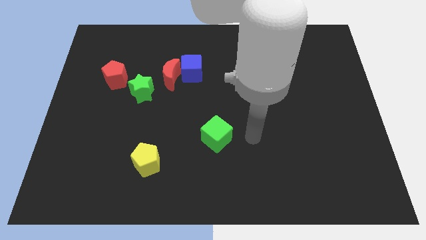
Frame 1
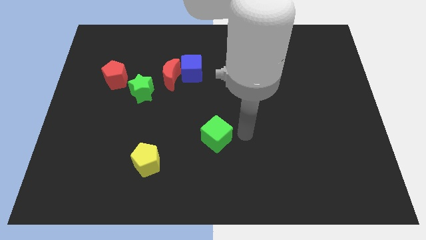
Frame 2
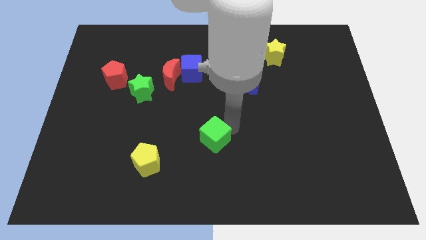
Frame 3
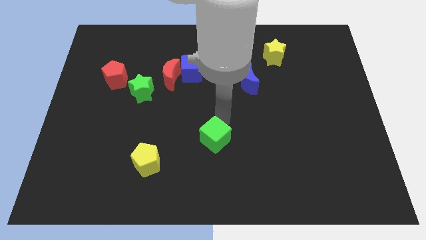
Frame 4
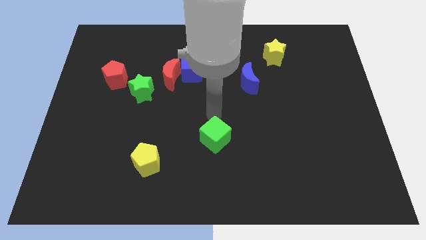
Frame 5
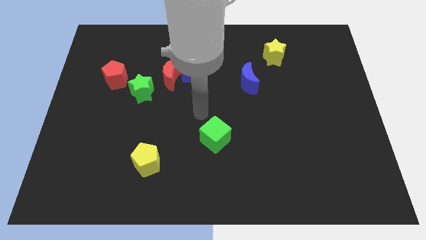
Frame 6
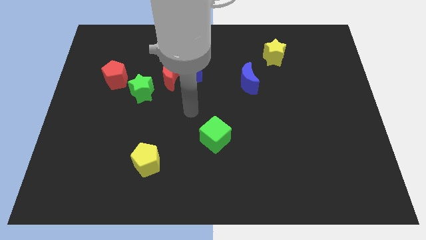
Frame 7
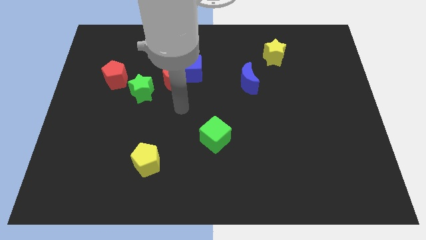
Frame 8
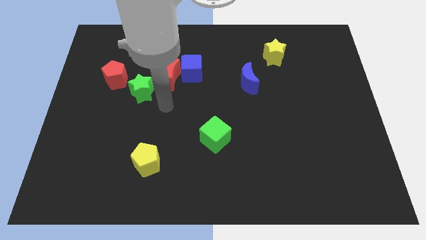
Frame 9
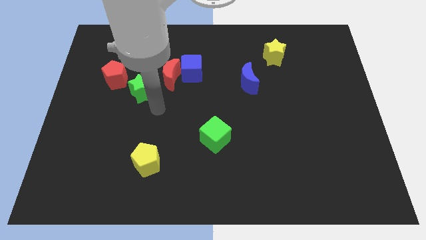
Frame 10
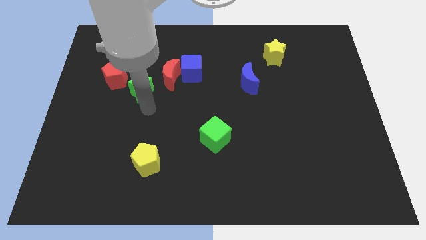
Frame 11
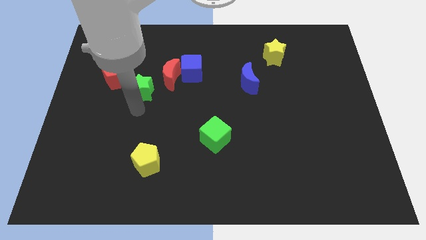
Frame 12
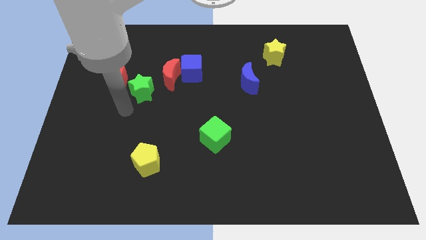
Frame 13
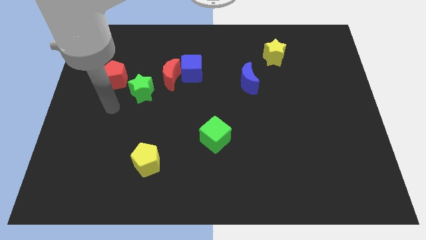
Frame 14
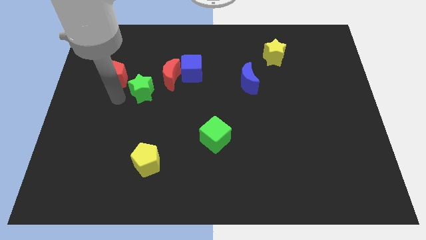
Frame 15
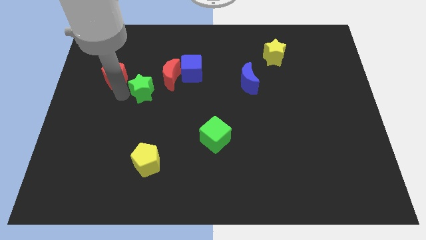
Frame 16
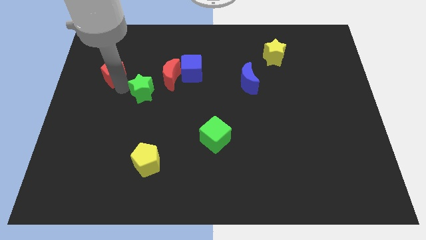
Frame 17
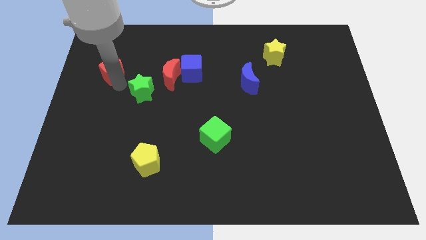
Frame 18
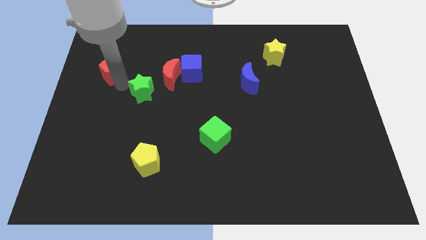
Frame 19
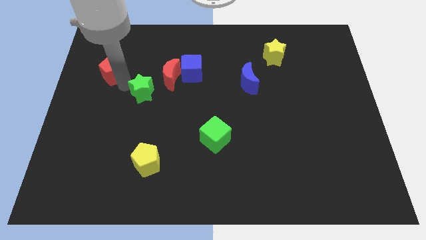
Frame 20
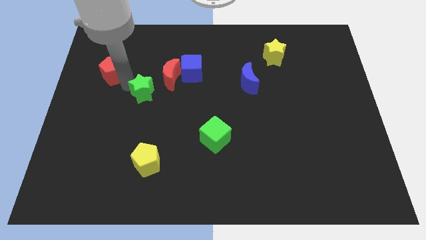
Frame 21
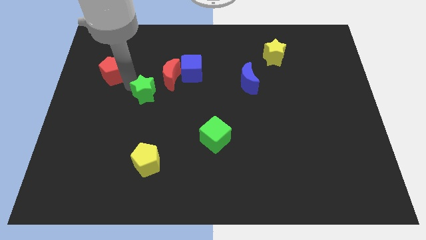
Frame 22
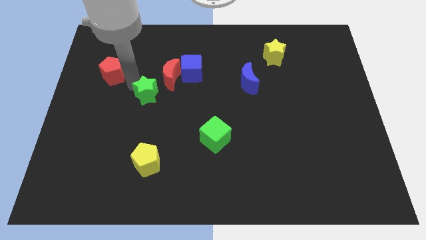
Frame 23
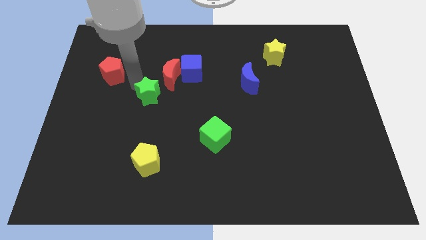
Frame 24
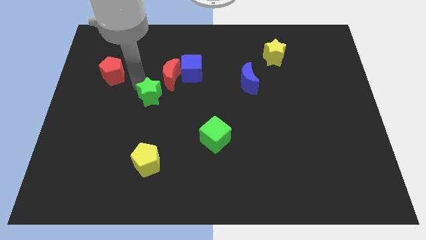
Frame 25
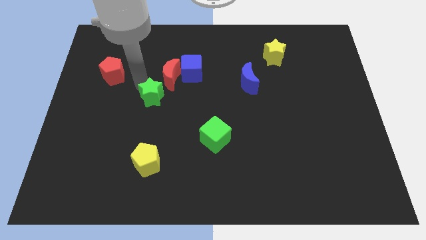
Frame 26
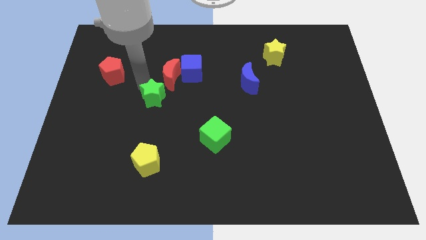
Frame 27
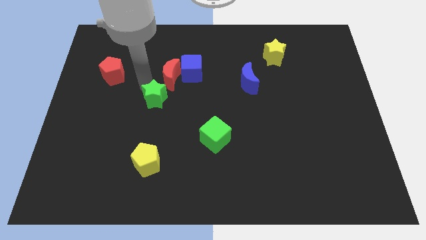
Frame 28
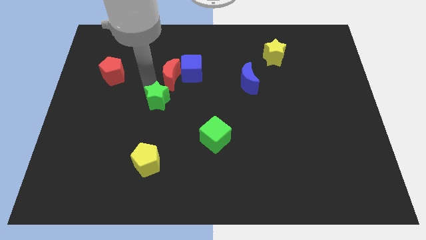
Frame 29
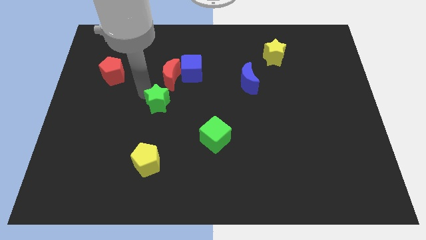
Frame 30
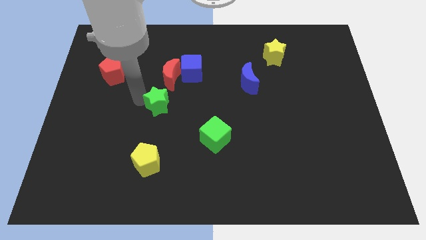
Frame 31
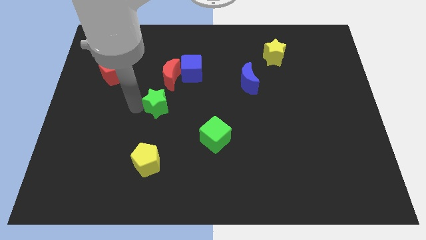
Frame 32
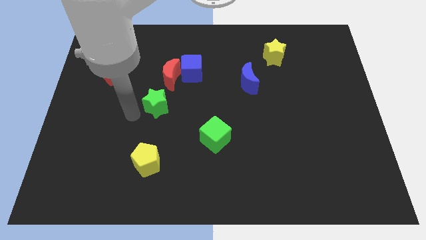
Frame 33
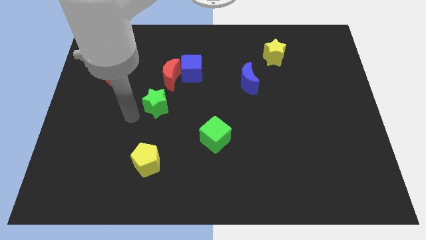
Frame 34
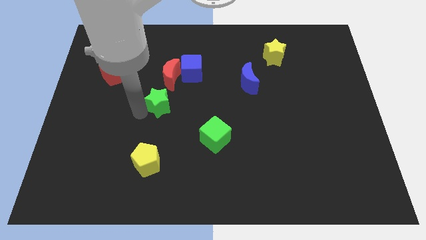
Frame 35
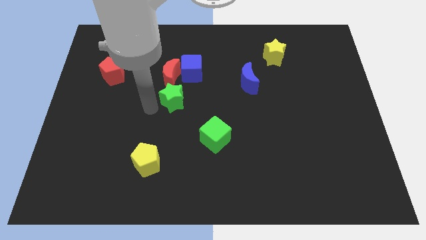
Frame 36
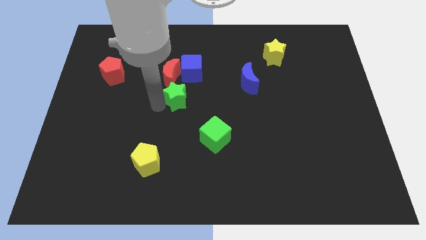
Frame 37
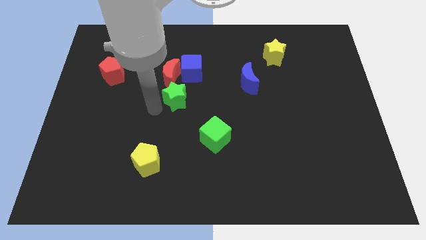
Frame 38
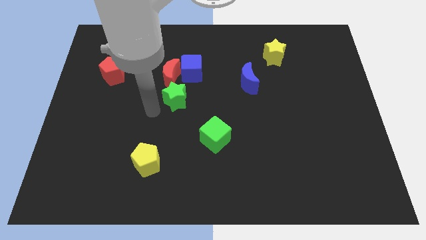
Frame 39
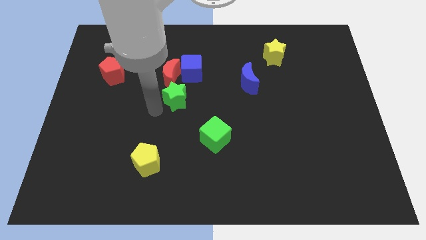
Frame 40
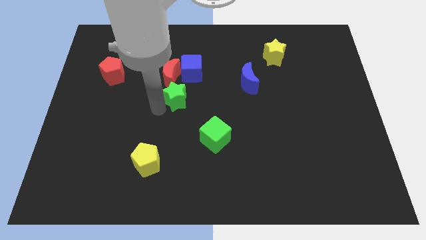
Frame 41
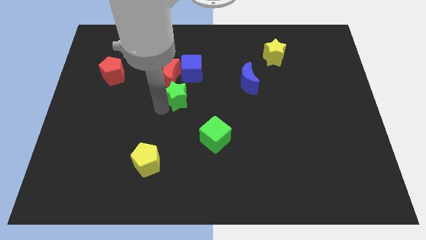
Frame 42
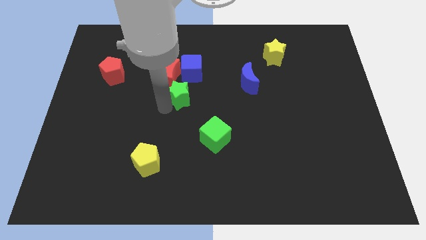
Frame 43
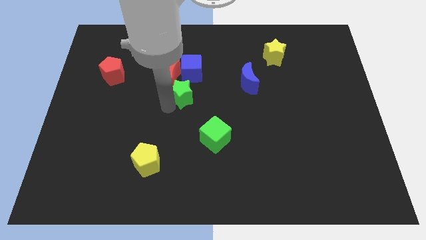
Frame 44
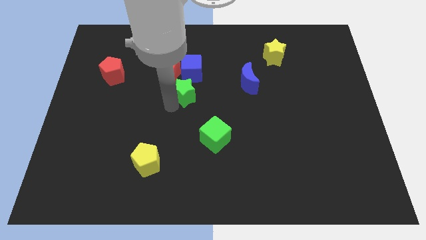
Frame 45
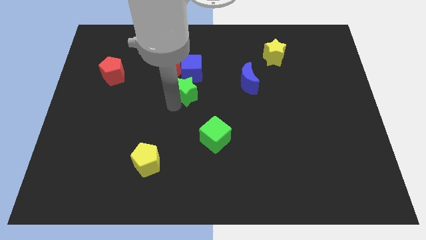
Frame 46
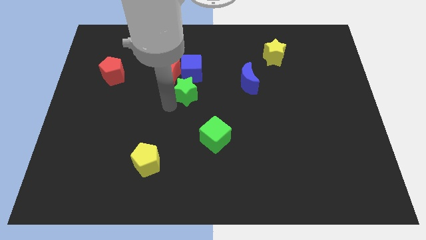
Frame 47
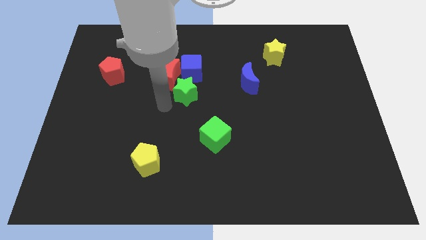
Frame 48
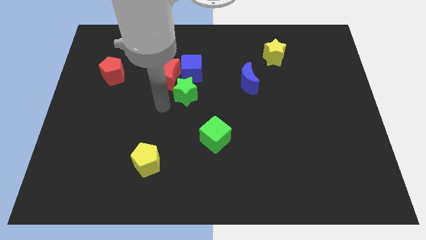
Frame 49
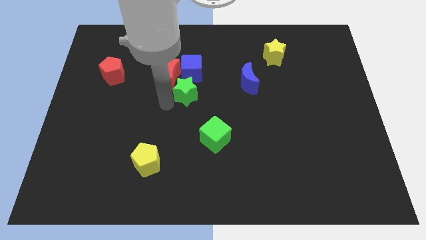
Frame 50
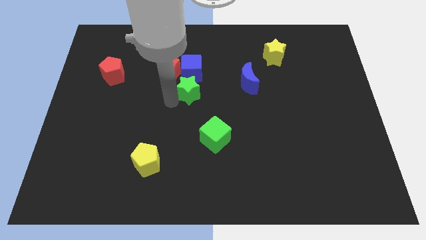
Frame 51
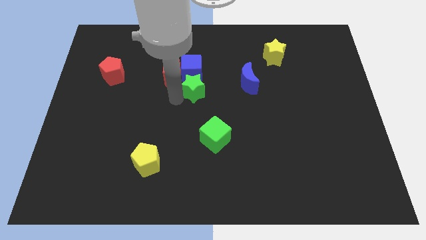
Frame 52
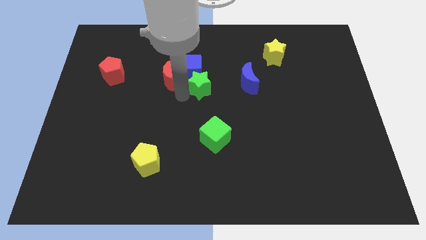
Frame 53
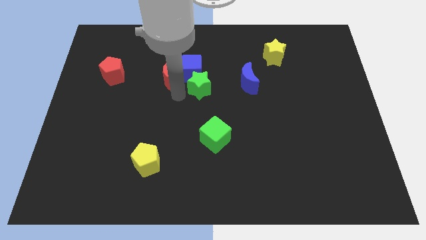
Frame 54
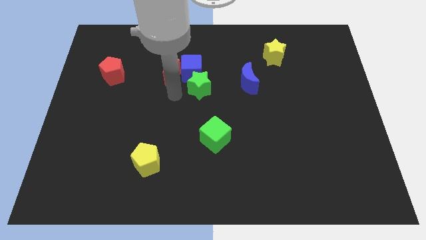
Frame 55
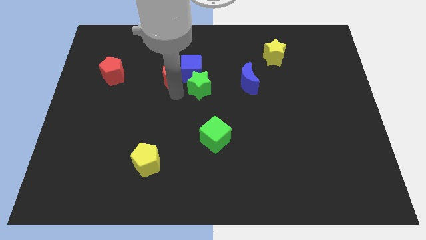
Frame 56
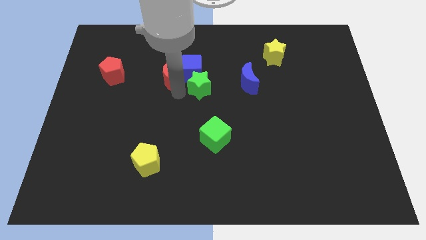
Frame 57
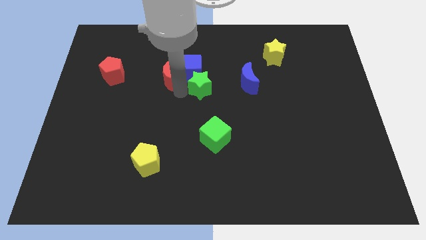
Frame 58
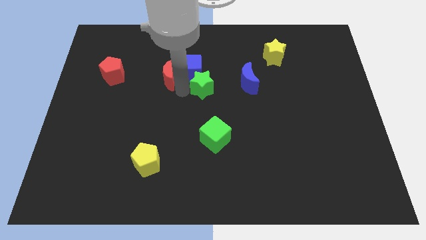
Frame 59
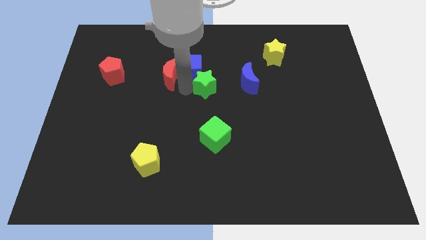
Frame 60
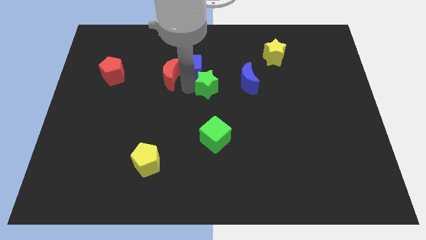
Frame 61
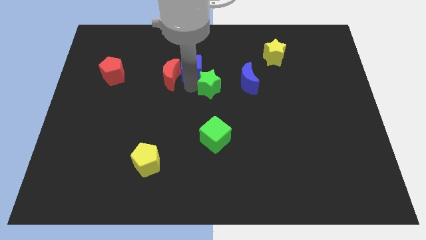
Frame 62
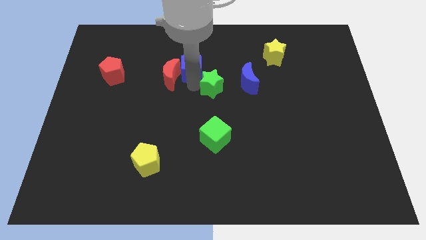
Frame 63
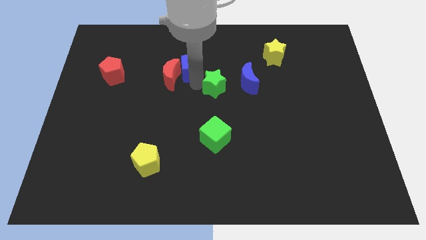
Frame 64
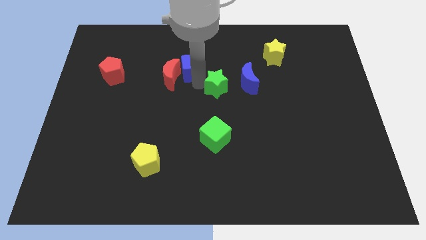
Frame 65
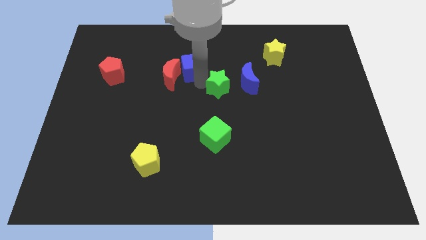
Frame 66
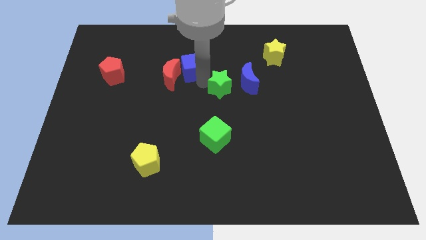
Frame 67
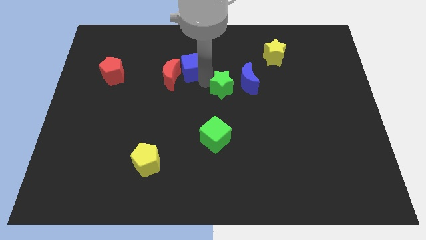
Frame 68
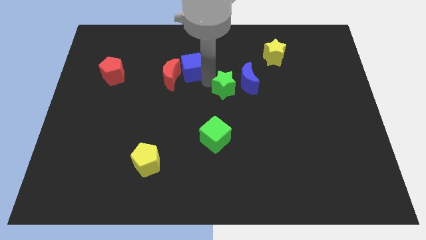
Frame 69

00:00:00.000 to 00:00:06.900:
slide the green star to the blue moon

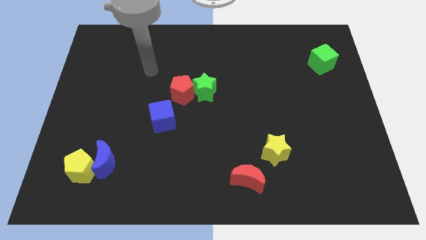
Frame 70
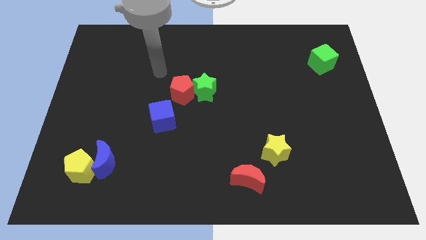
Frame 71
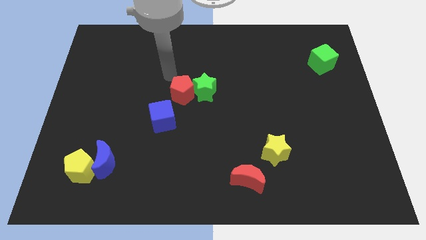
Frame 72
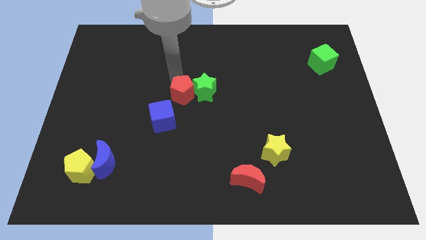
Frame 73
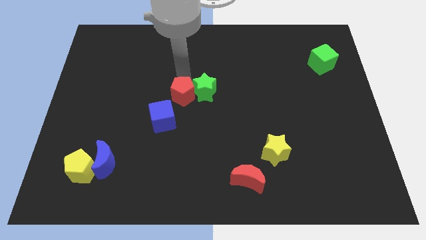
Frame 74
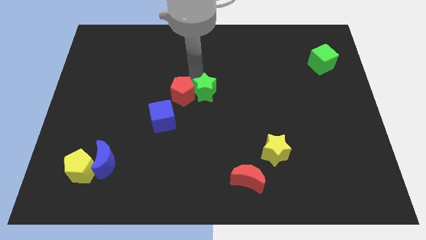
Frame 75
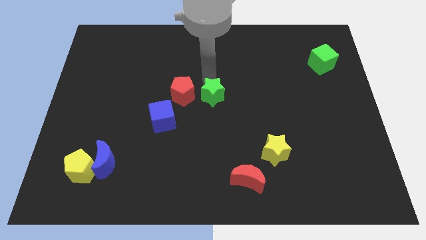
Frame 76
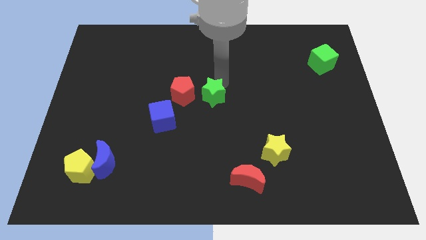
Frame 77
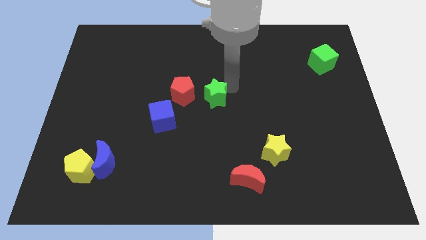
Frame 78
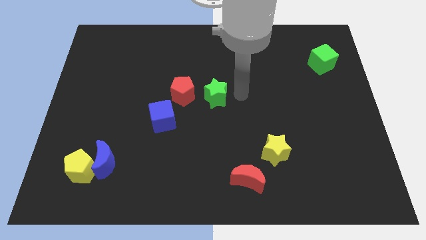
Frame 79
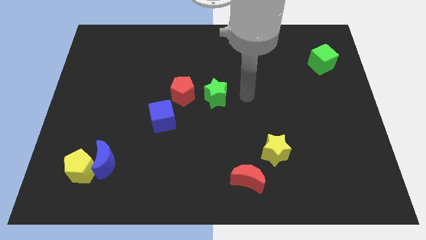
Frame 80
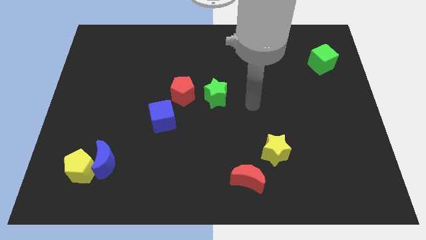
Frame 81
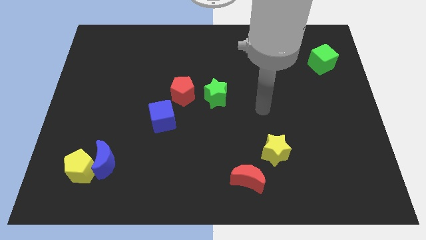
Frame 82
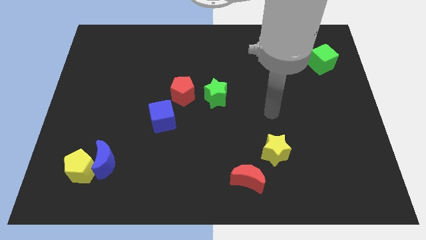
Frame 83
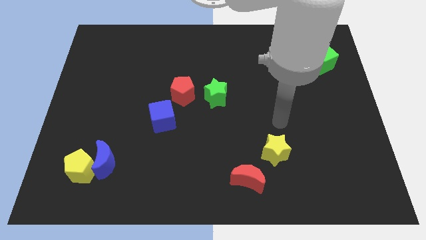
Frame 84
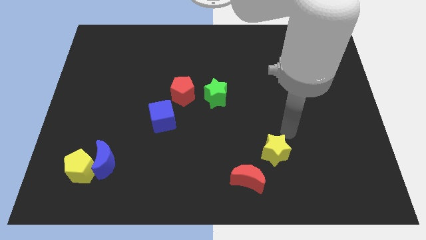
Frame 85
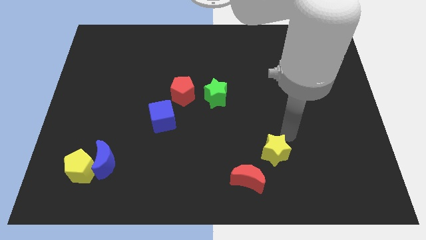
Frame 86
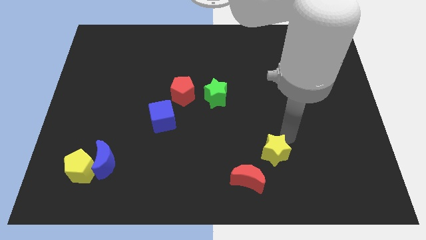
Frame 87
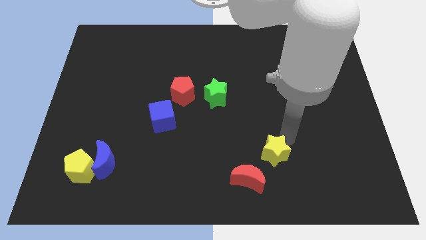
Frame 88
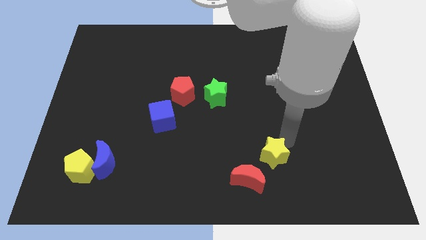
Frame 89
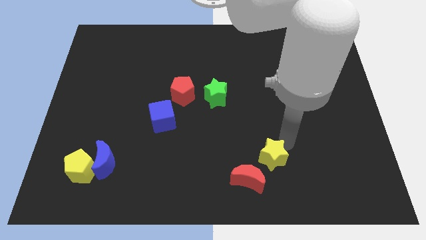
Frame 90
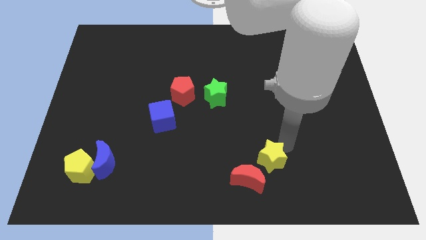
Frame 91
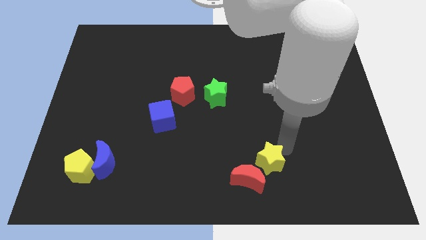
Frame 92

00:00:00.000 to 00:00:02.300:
put the yellow star to the red moon
